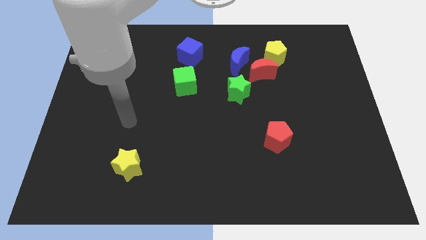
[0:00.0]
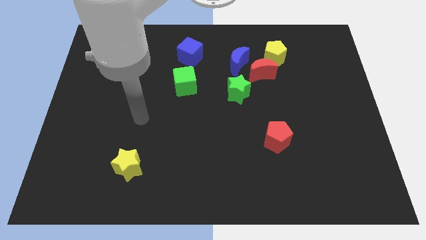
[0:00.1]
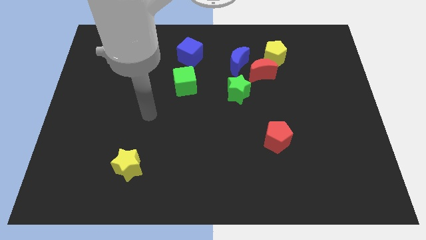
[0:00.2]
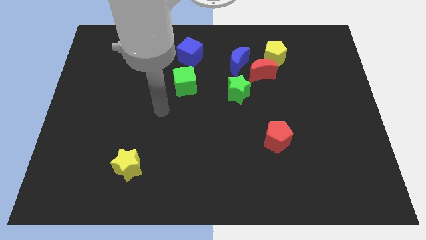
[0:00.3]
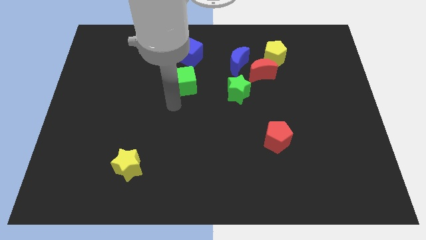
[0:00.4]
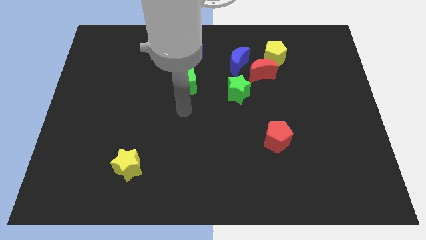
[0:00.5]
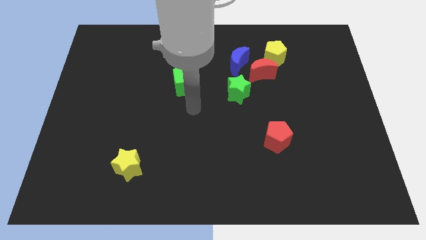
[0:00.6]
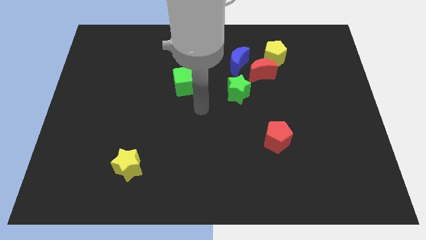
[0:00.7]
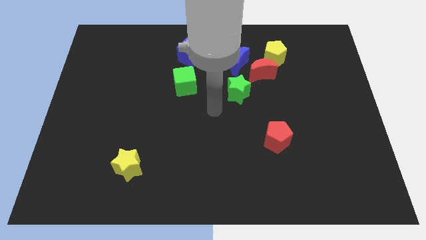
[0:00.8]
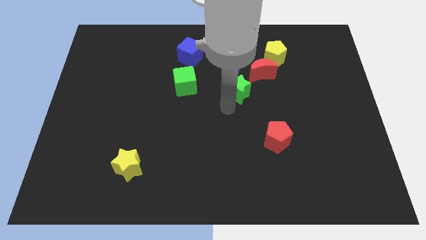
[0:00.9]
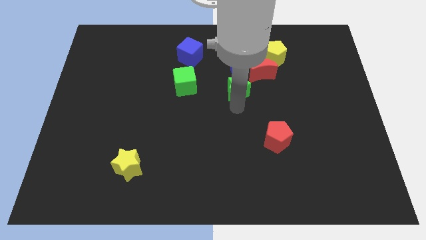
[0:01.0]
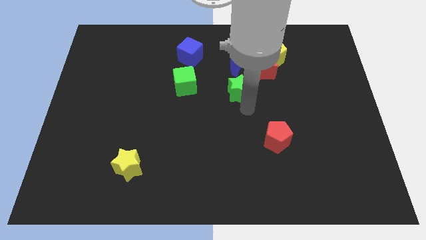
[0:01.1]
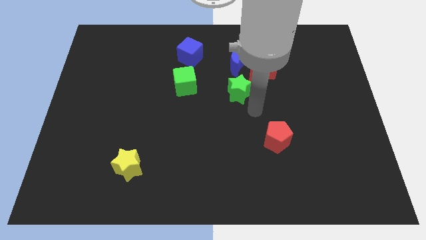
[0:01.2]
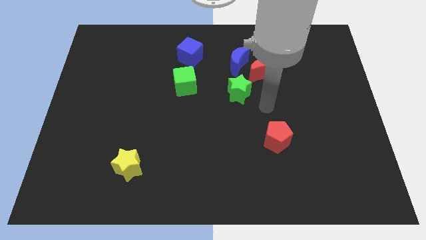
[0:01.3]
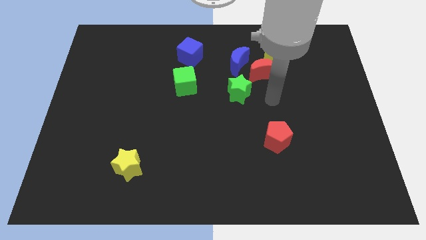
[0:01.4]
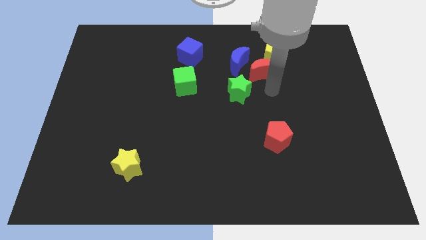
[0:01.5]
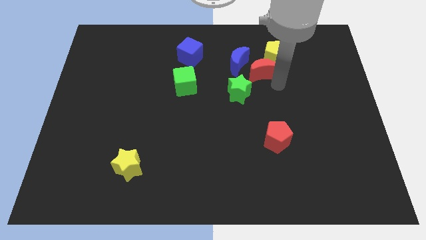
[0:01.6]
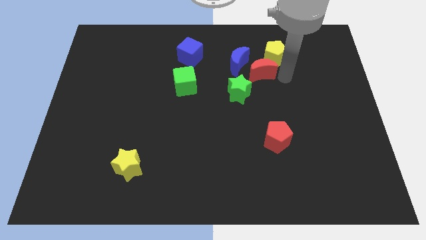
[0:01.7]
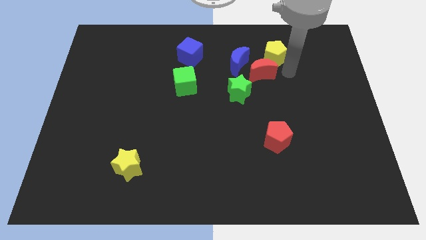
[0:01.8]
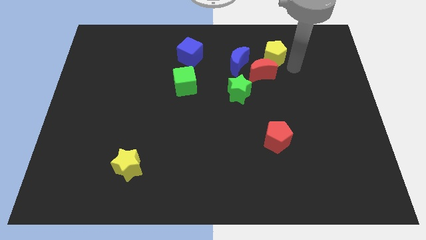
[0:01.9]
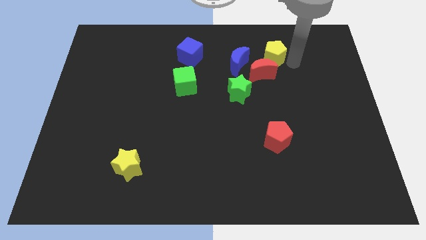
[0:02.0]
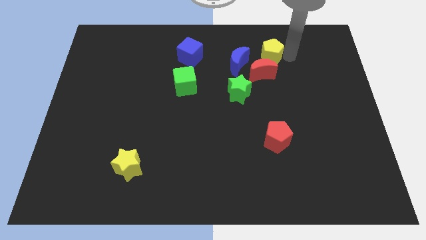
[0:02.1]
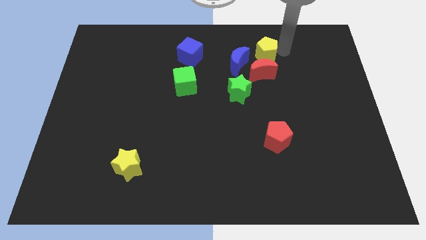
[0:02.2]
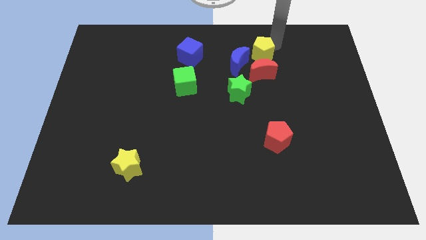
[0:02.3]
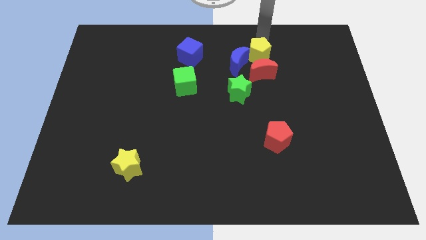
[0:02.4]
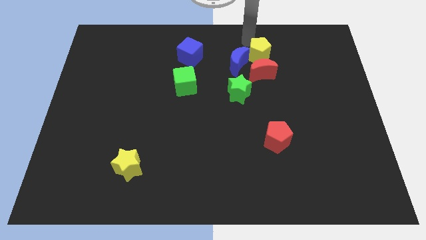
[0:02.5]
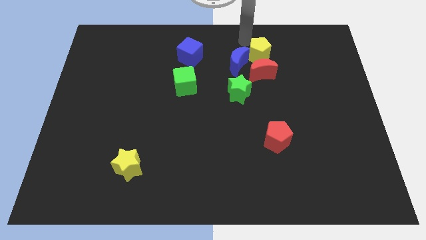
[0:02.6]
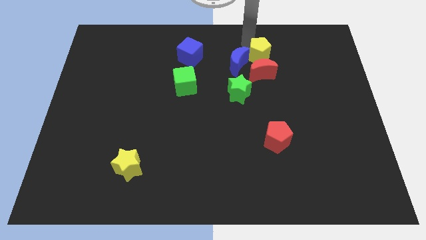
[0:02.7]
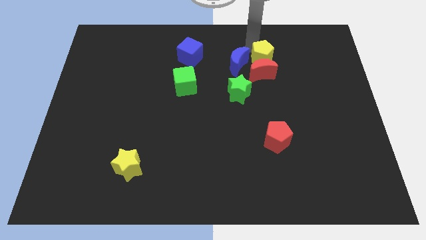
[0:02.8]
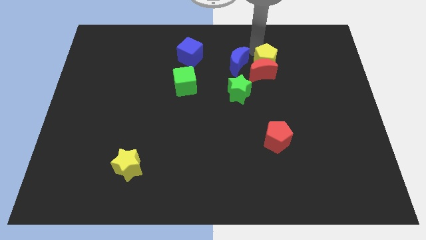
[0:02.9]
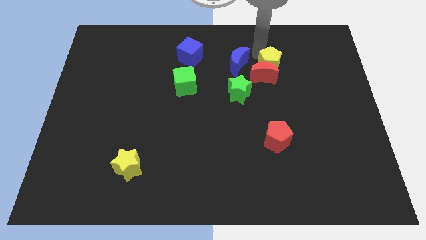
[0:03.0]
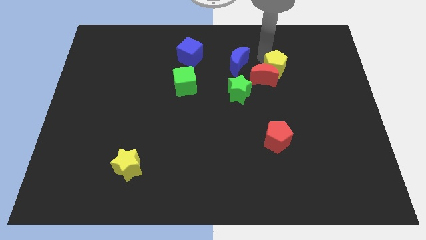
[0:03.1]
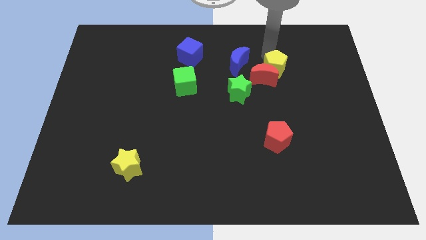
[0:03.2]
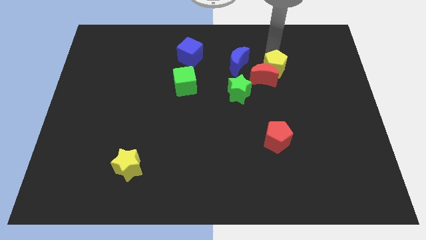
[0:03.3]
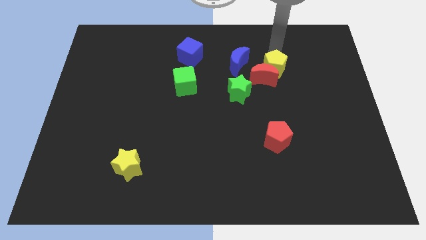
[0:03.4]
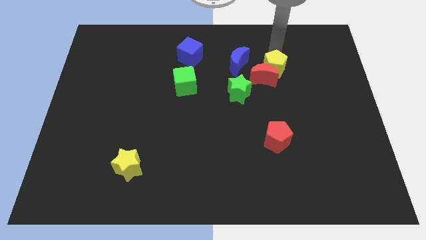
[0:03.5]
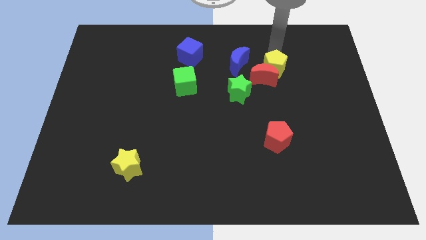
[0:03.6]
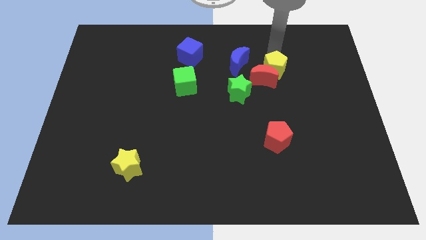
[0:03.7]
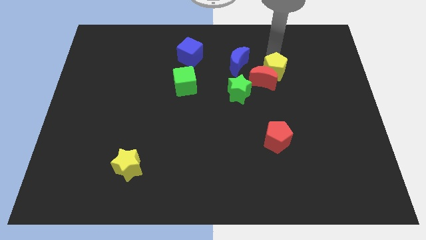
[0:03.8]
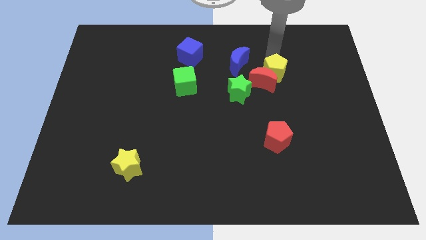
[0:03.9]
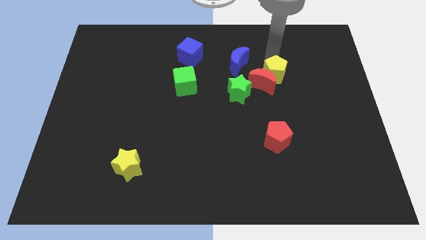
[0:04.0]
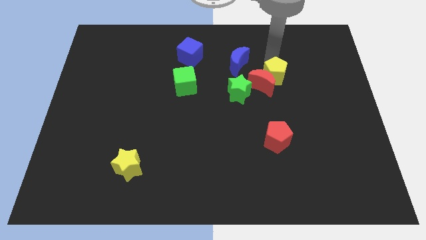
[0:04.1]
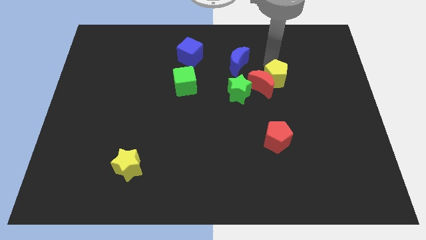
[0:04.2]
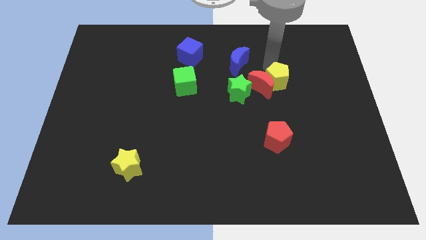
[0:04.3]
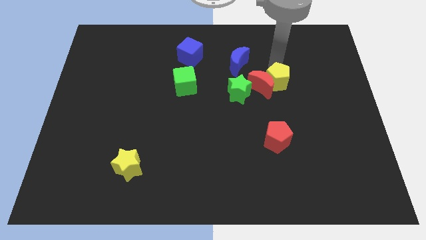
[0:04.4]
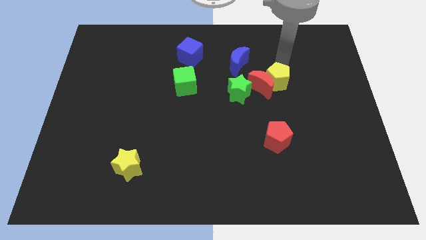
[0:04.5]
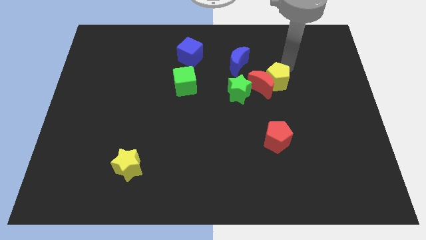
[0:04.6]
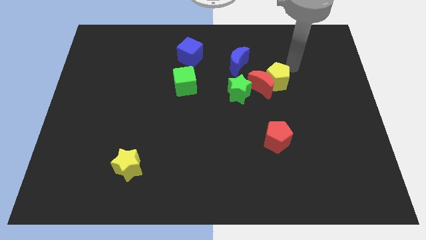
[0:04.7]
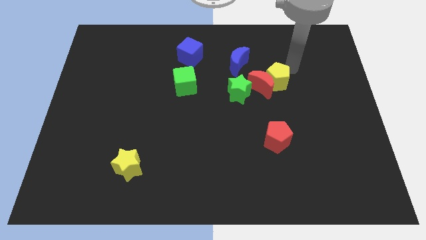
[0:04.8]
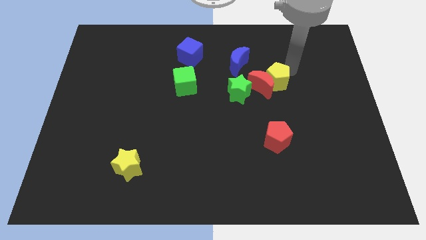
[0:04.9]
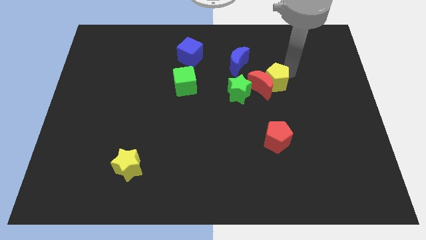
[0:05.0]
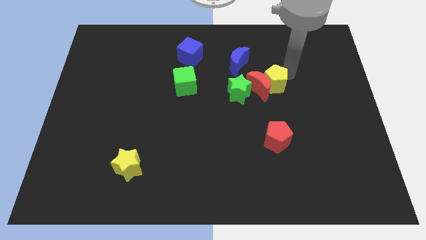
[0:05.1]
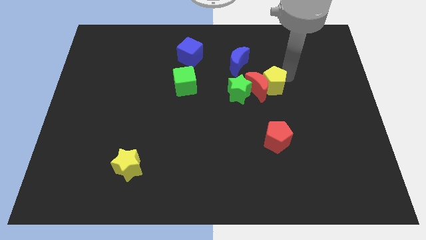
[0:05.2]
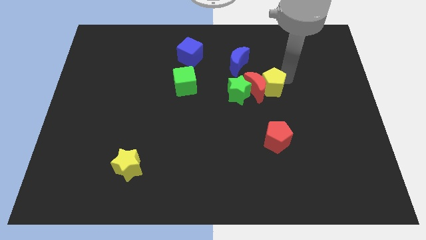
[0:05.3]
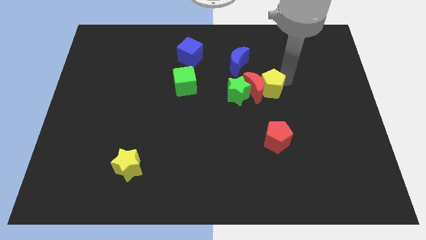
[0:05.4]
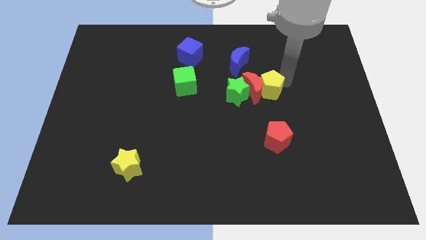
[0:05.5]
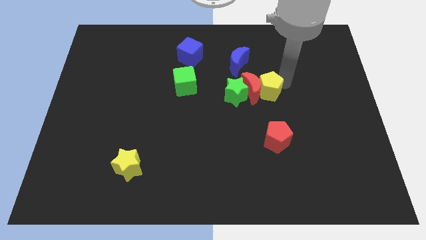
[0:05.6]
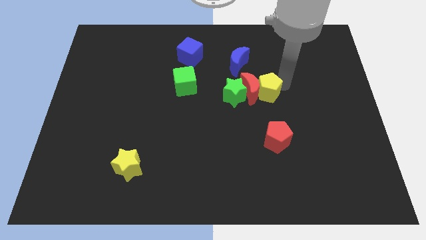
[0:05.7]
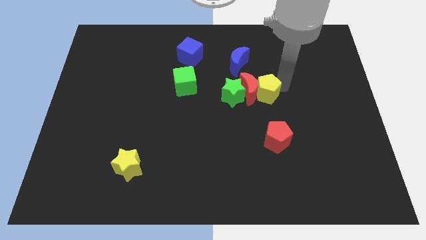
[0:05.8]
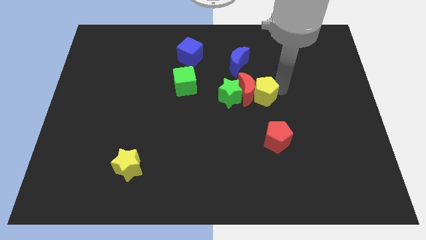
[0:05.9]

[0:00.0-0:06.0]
push the yellow pentagon to the center of the board
